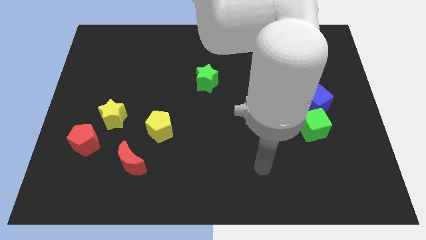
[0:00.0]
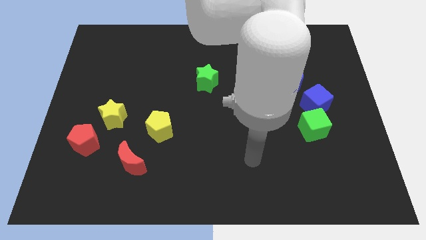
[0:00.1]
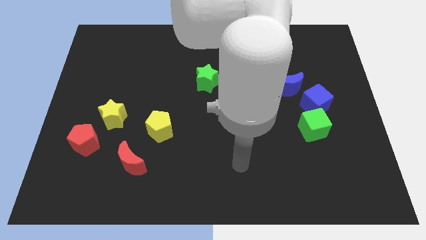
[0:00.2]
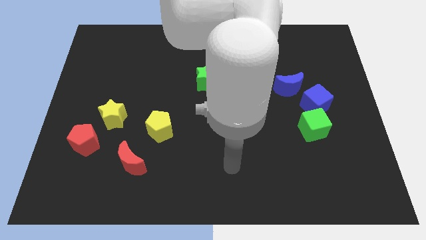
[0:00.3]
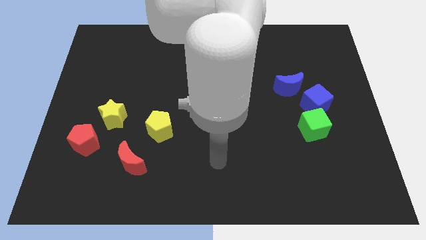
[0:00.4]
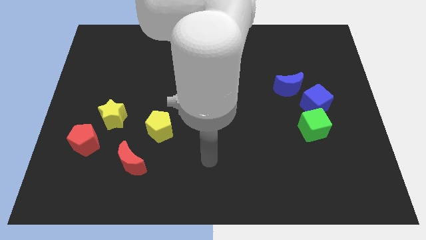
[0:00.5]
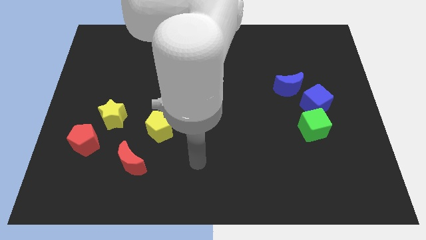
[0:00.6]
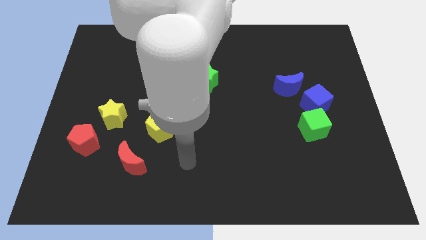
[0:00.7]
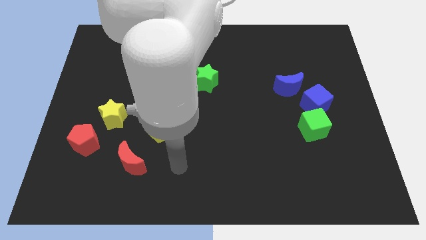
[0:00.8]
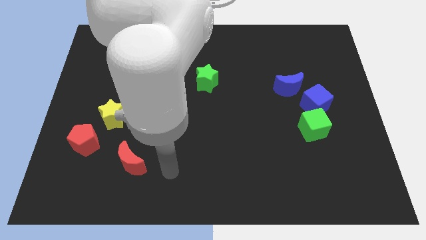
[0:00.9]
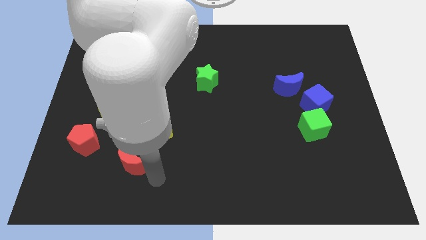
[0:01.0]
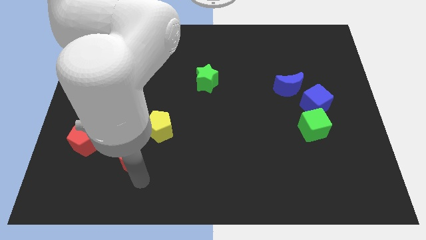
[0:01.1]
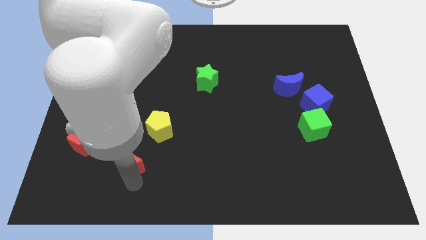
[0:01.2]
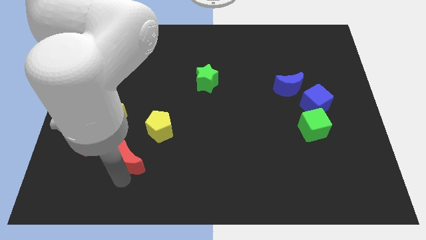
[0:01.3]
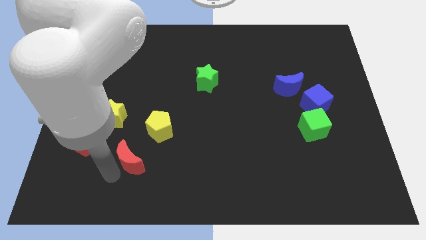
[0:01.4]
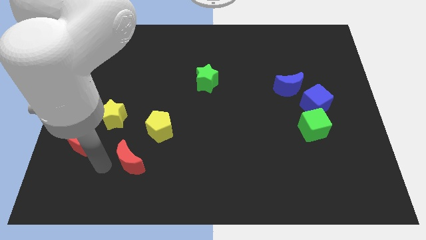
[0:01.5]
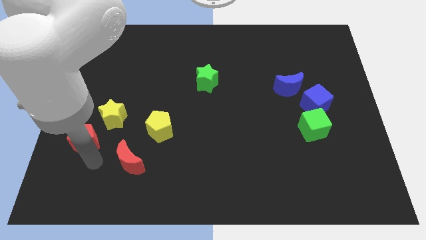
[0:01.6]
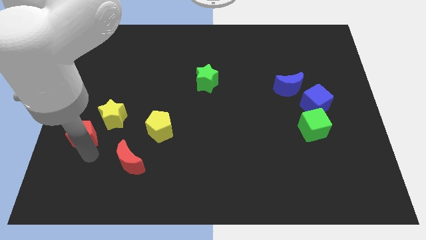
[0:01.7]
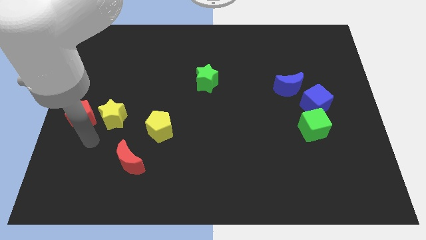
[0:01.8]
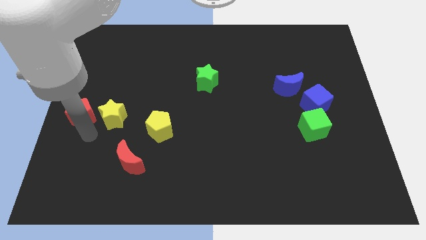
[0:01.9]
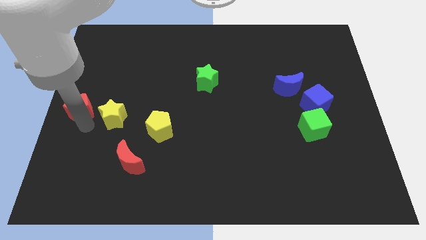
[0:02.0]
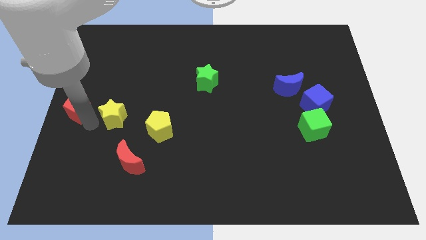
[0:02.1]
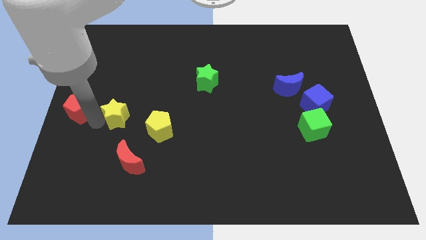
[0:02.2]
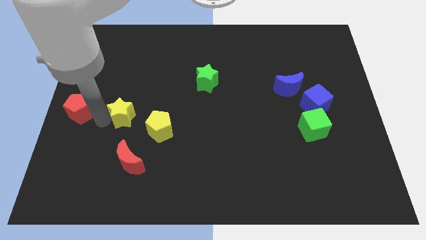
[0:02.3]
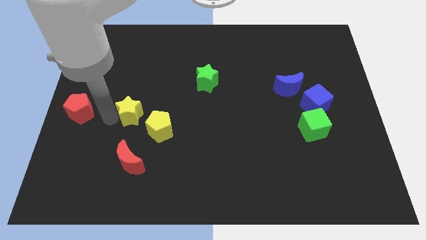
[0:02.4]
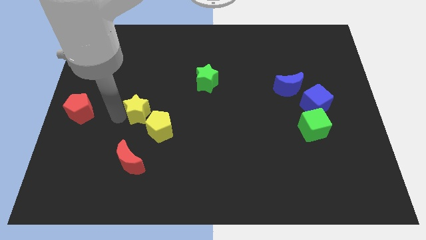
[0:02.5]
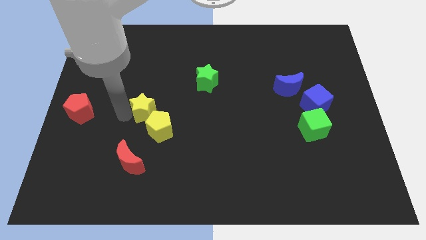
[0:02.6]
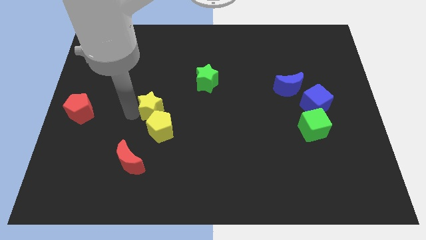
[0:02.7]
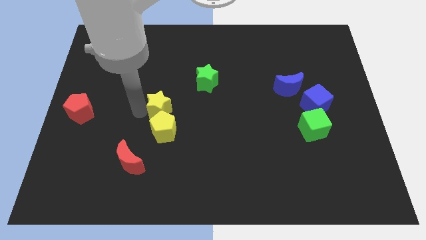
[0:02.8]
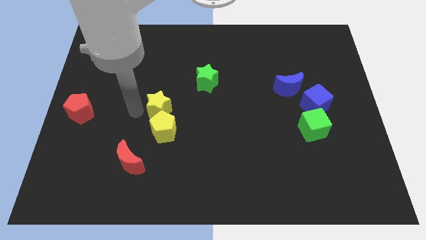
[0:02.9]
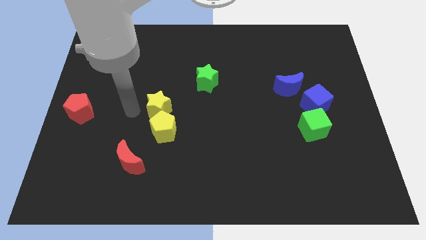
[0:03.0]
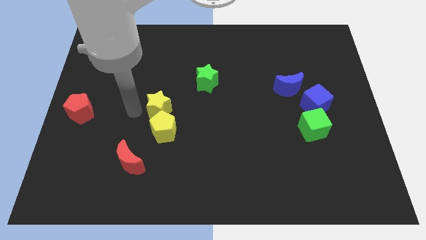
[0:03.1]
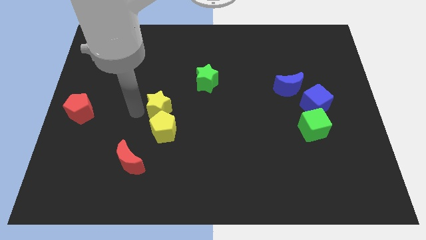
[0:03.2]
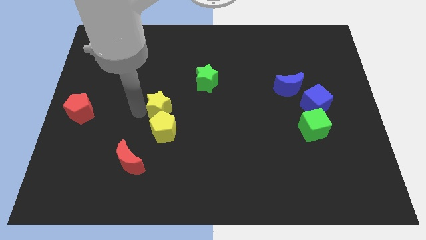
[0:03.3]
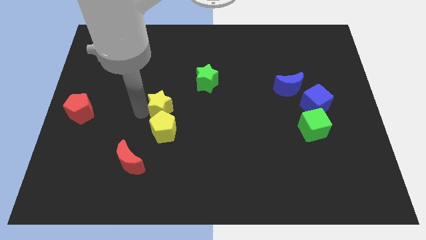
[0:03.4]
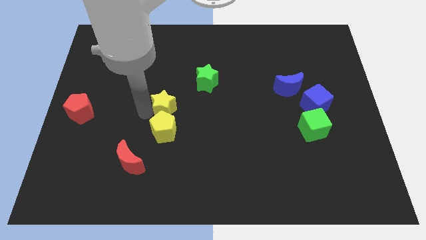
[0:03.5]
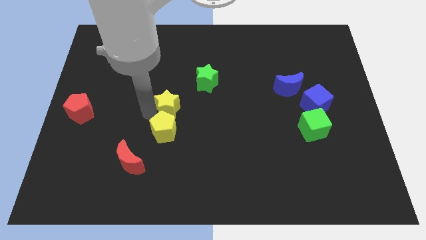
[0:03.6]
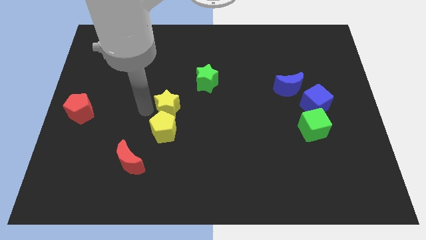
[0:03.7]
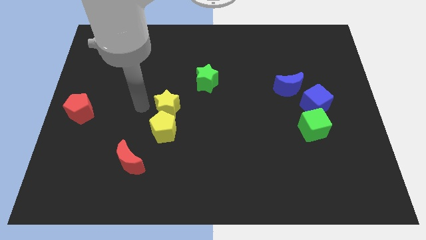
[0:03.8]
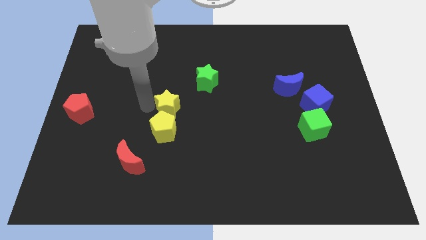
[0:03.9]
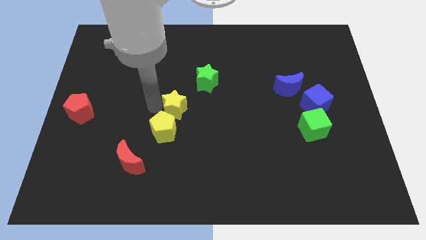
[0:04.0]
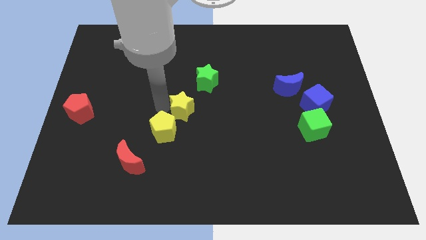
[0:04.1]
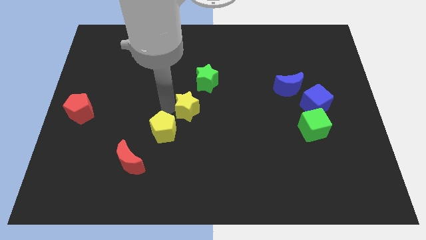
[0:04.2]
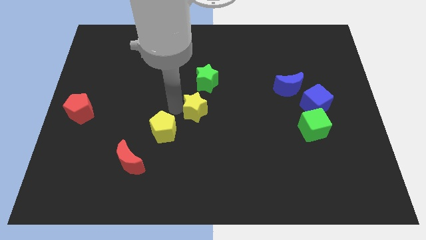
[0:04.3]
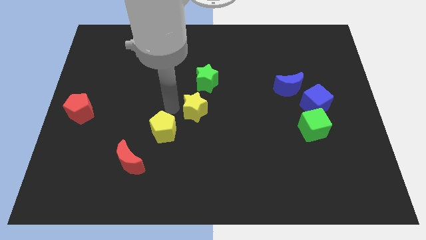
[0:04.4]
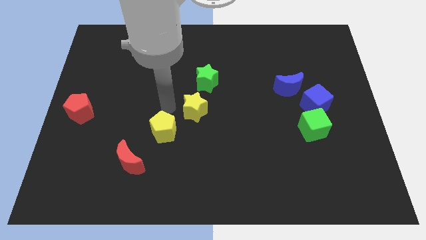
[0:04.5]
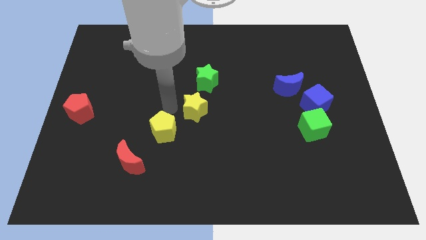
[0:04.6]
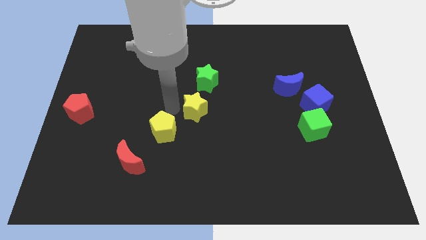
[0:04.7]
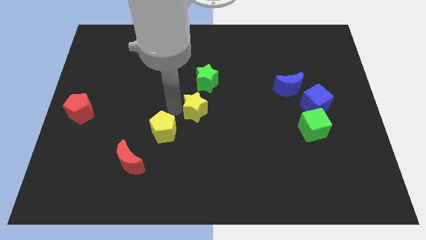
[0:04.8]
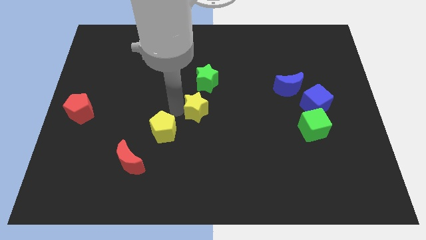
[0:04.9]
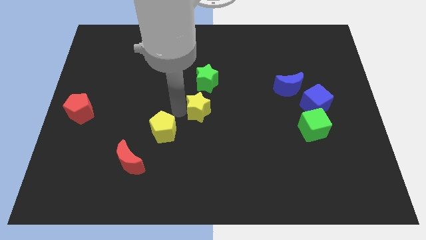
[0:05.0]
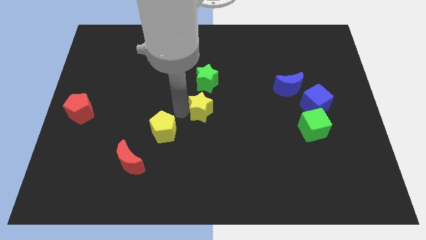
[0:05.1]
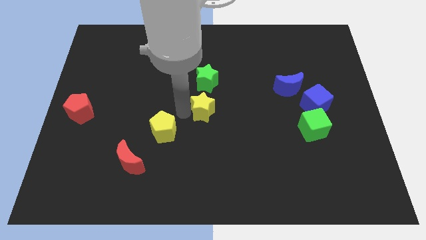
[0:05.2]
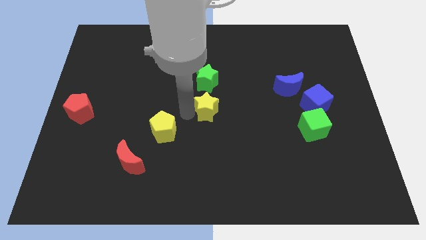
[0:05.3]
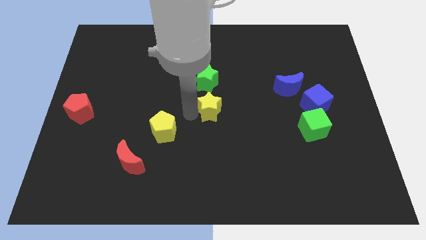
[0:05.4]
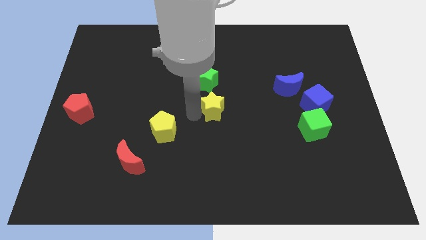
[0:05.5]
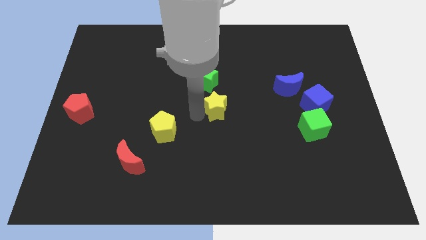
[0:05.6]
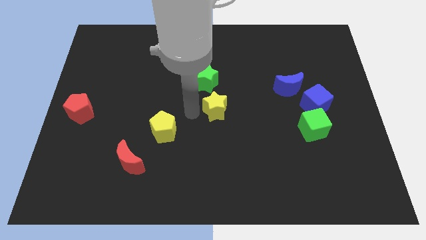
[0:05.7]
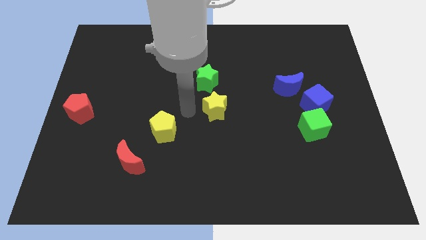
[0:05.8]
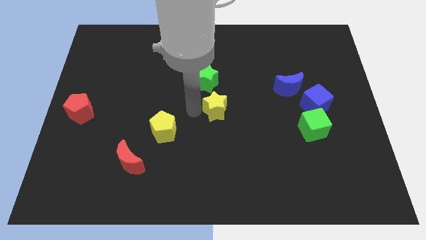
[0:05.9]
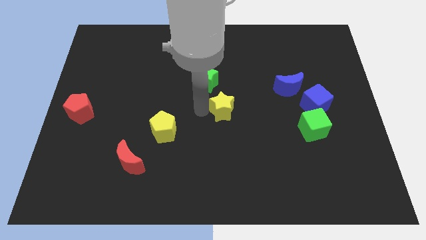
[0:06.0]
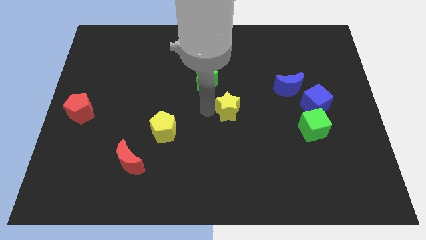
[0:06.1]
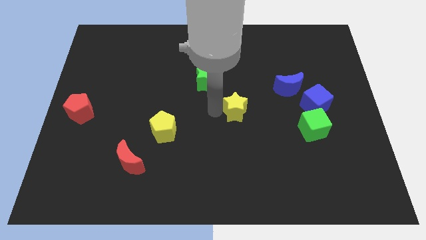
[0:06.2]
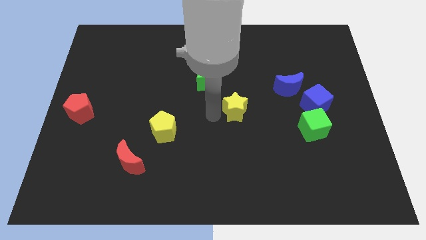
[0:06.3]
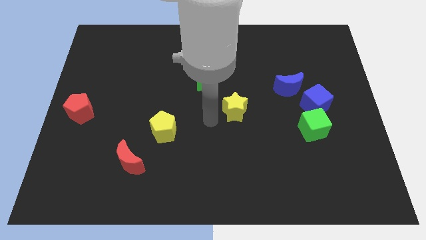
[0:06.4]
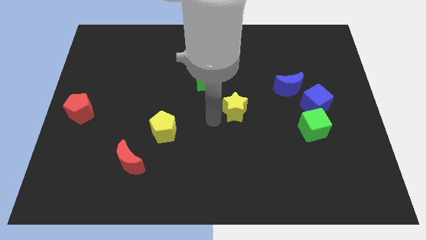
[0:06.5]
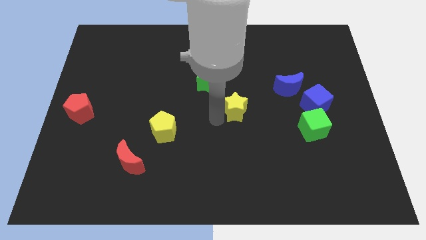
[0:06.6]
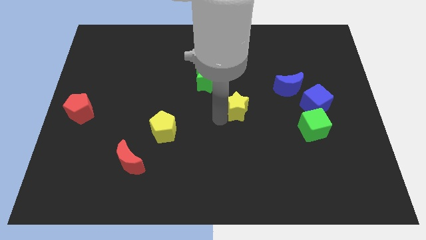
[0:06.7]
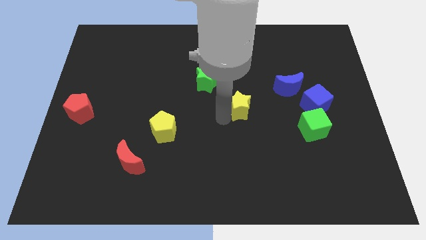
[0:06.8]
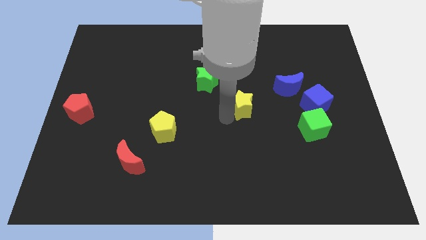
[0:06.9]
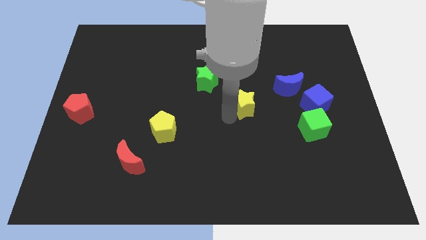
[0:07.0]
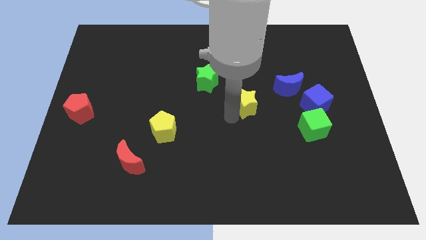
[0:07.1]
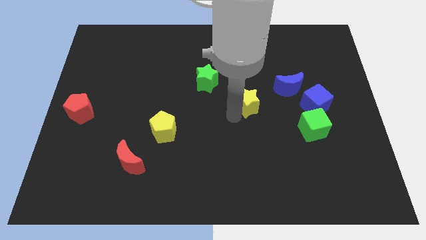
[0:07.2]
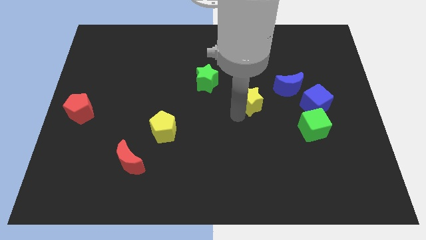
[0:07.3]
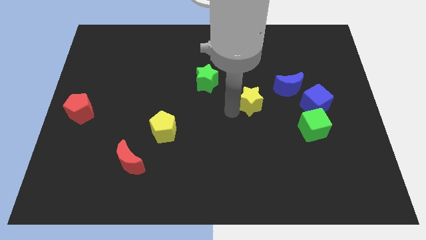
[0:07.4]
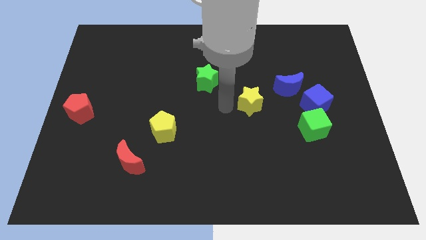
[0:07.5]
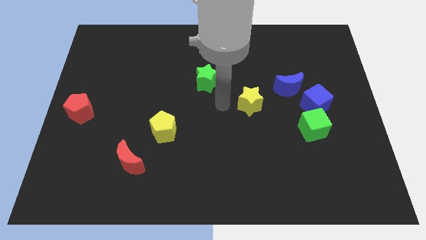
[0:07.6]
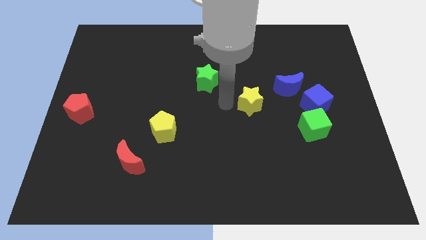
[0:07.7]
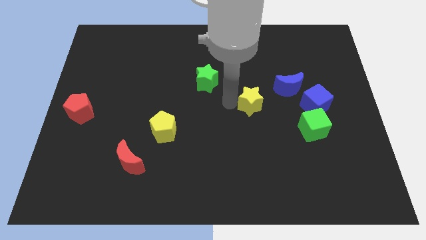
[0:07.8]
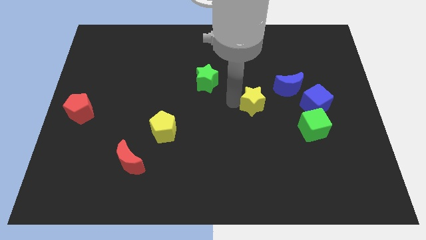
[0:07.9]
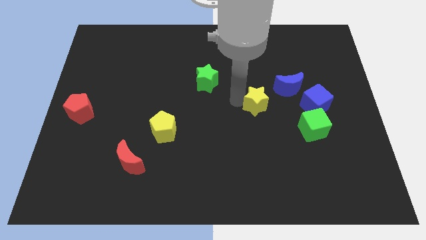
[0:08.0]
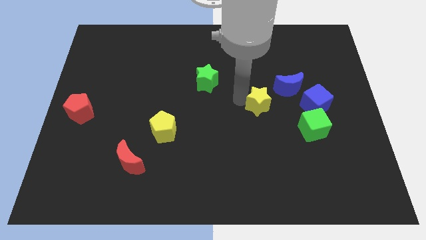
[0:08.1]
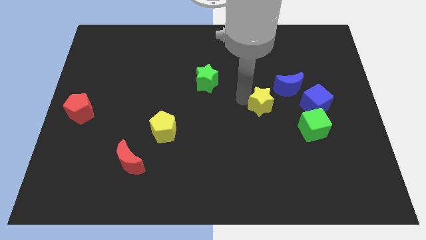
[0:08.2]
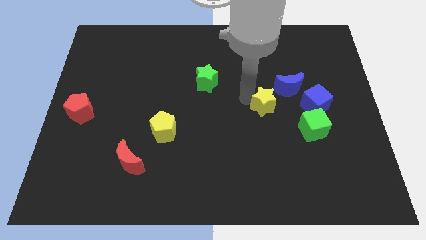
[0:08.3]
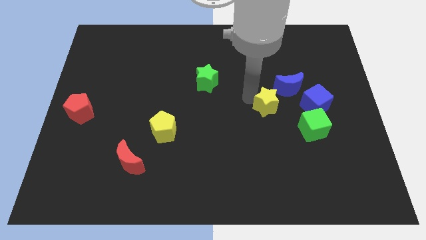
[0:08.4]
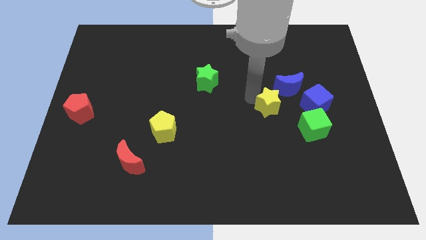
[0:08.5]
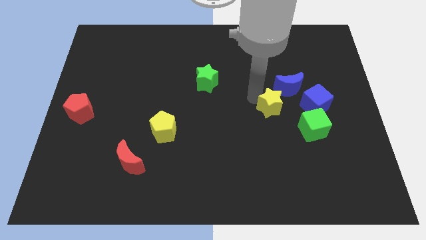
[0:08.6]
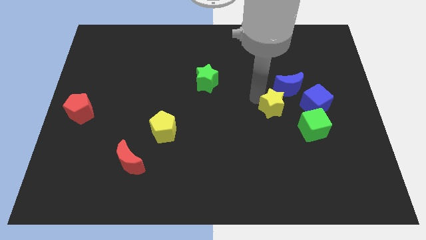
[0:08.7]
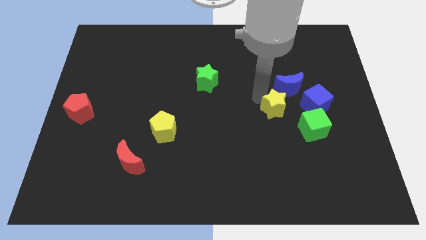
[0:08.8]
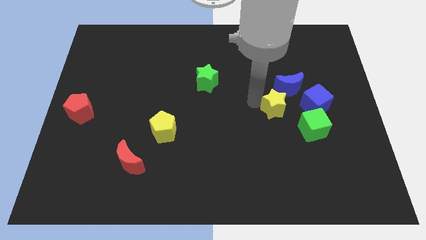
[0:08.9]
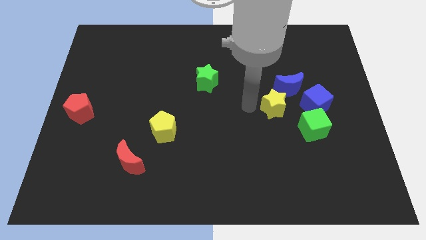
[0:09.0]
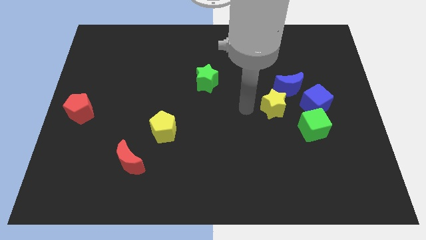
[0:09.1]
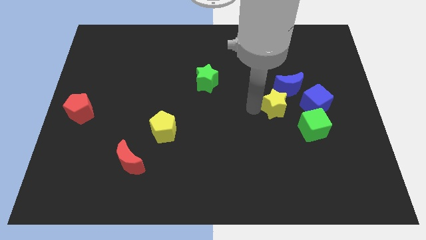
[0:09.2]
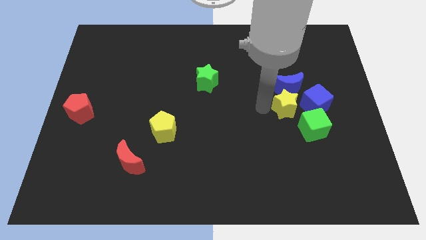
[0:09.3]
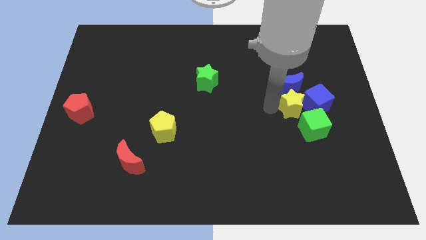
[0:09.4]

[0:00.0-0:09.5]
push the yellow star next to the blue cube
